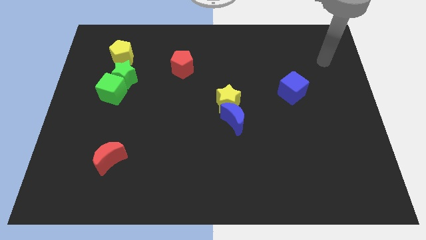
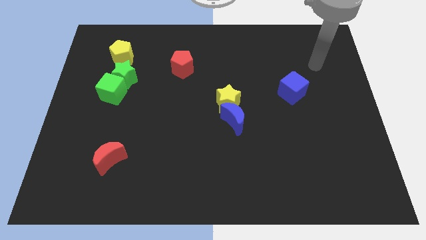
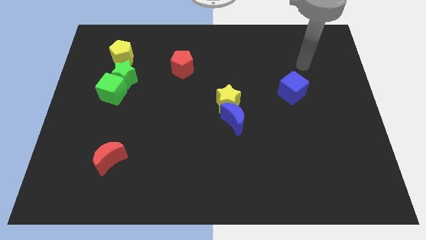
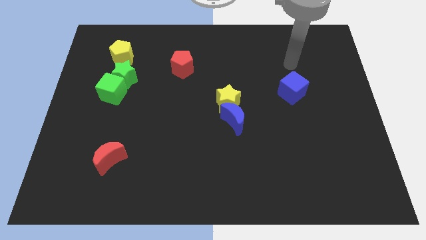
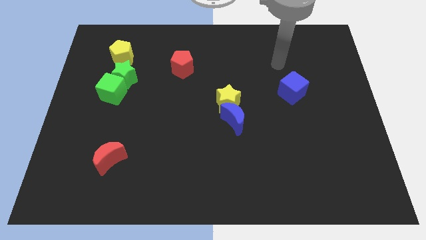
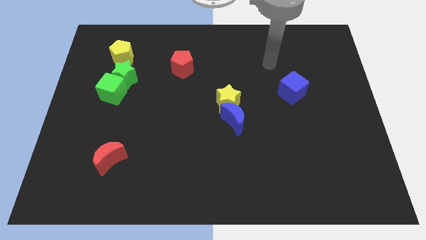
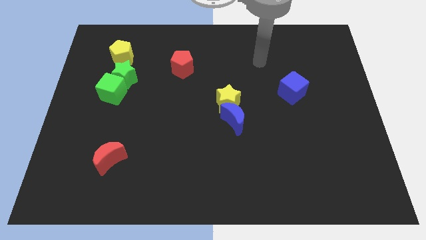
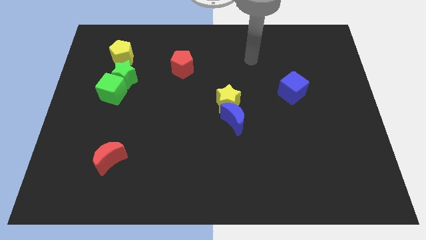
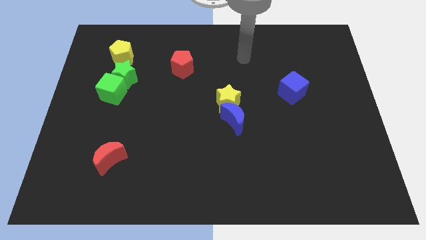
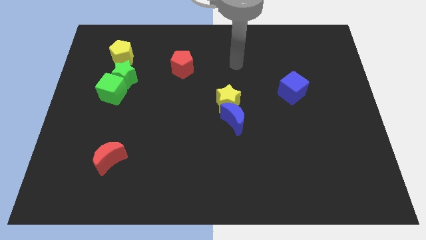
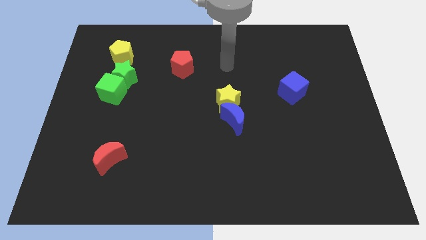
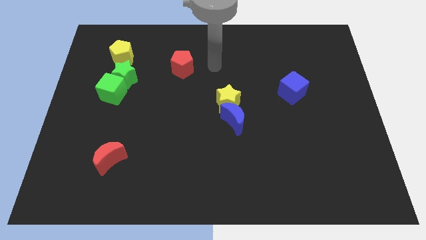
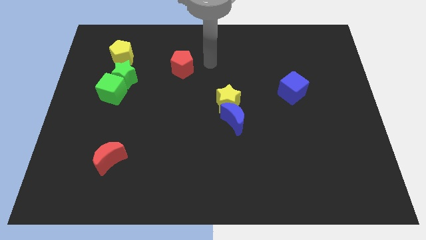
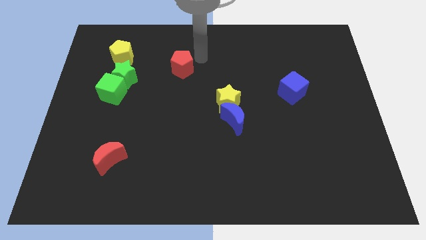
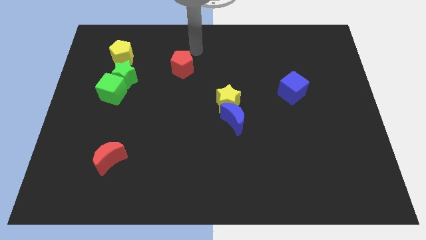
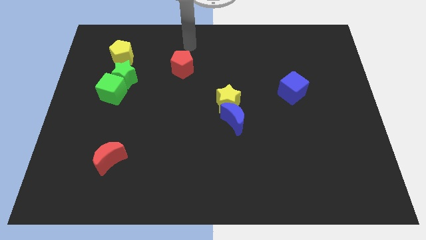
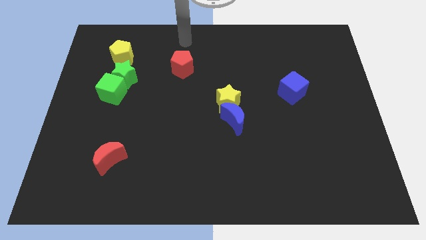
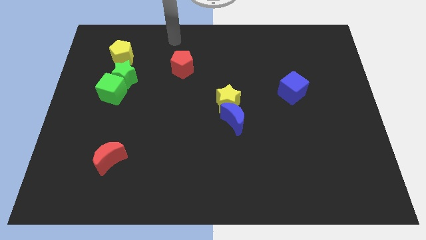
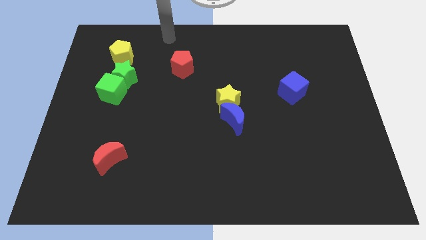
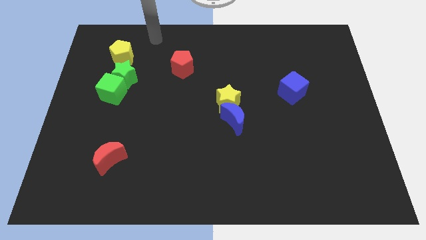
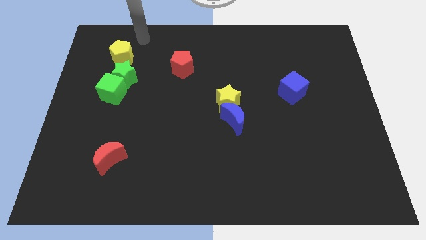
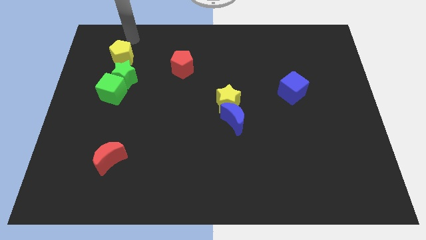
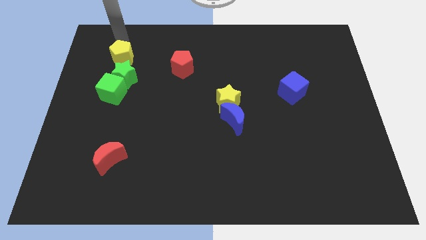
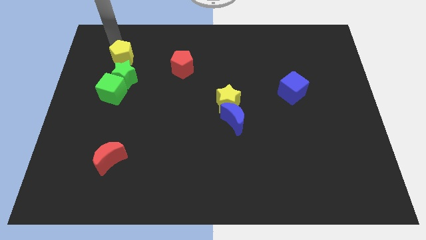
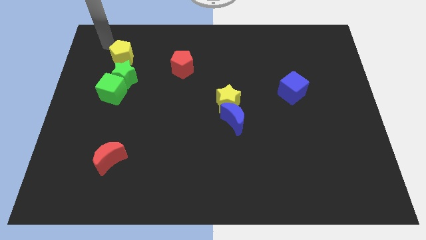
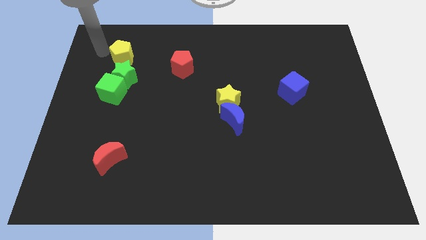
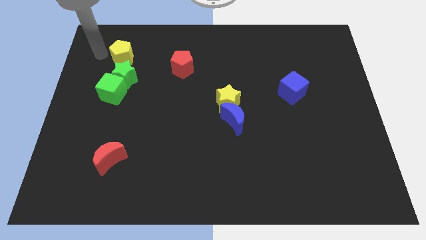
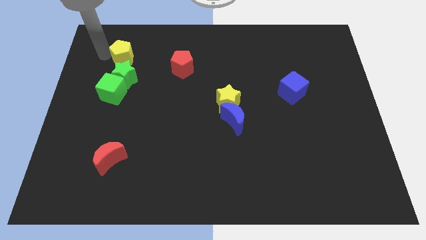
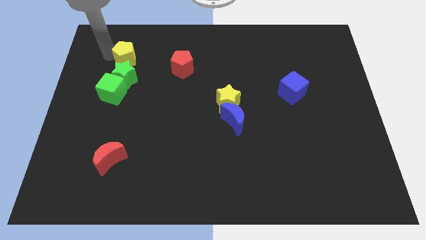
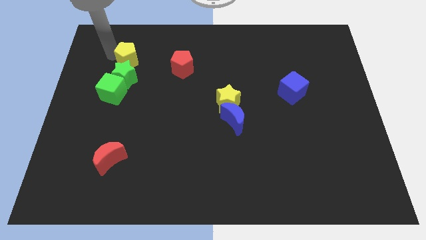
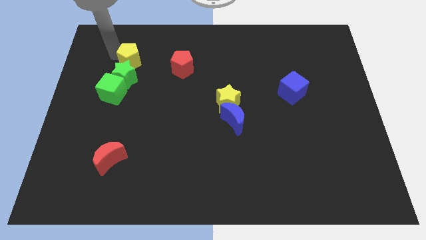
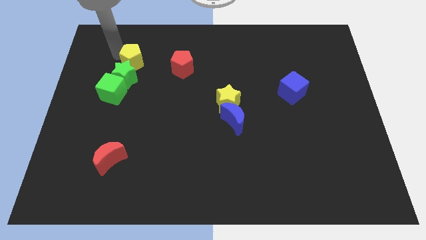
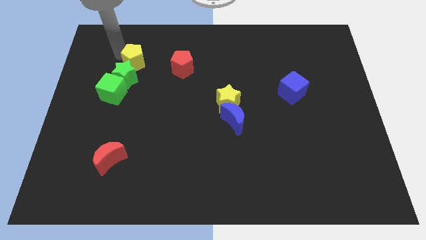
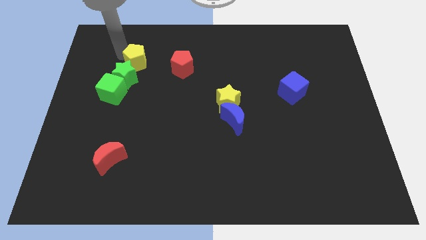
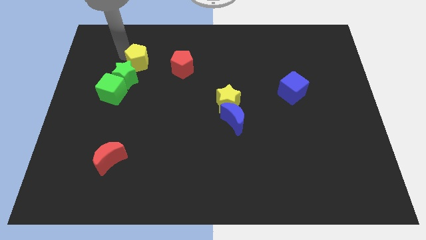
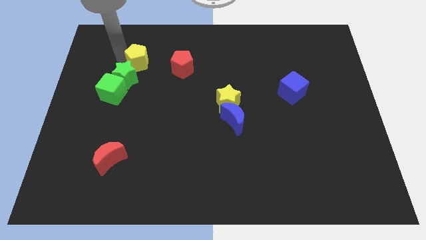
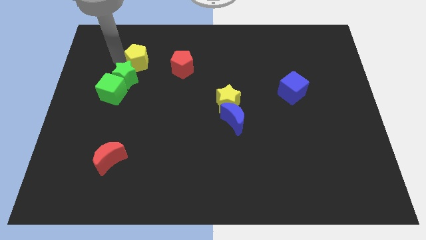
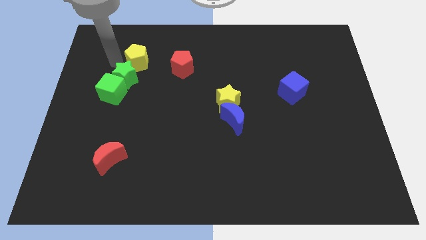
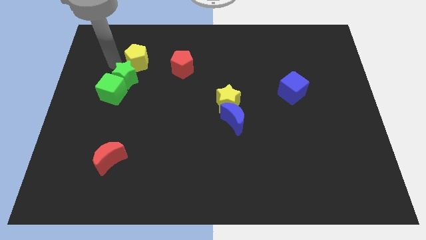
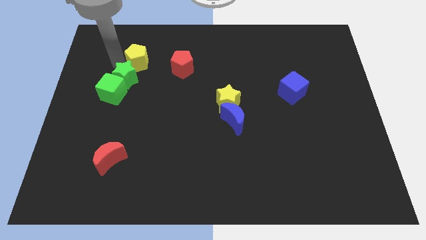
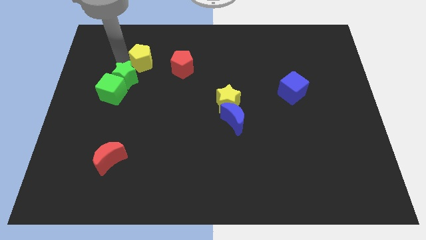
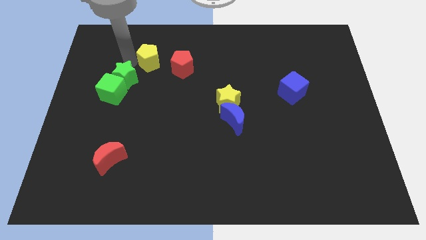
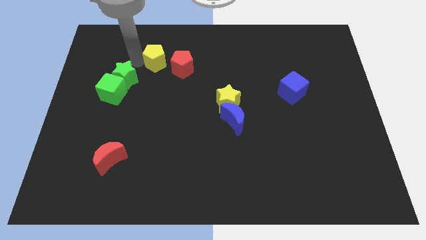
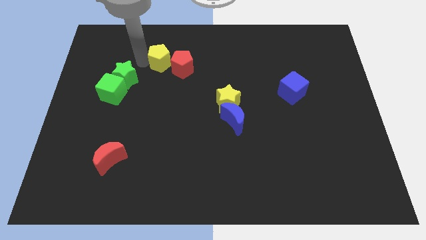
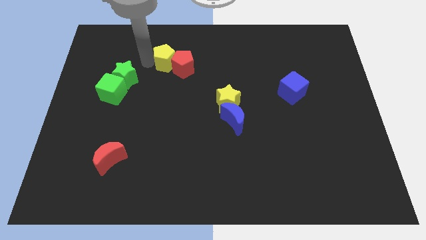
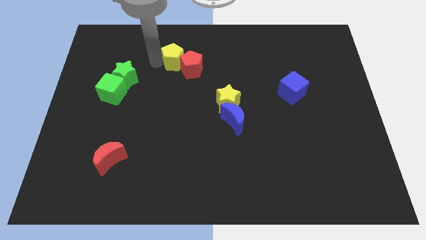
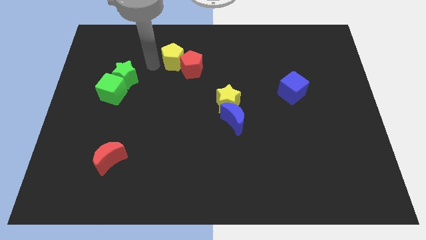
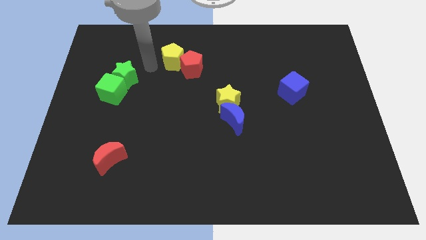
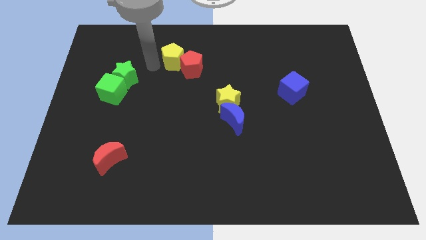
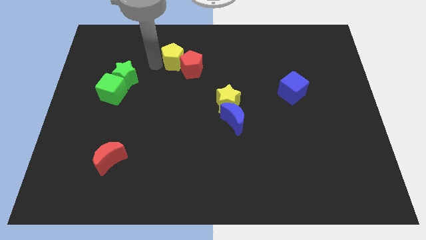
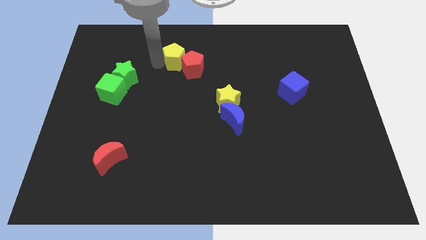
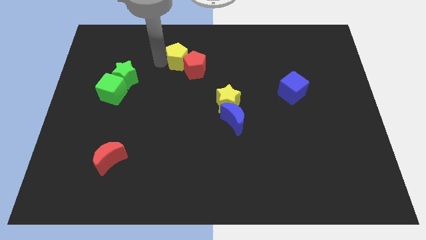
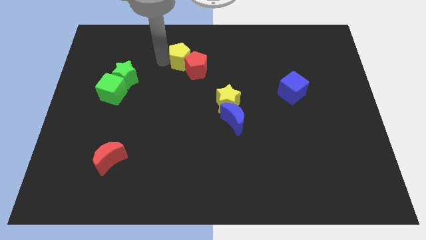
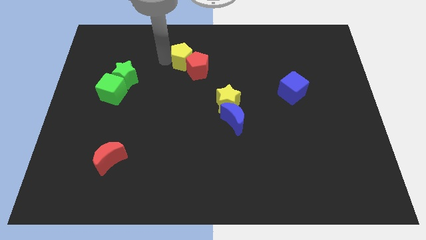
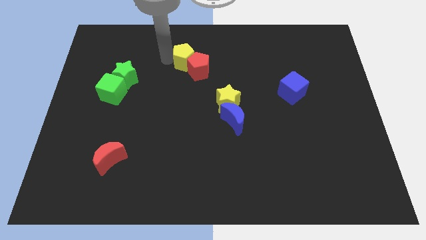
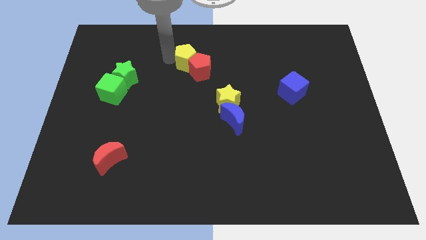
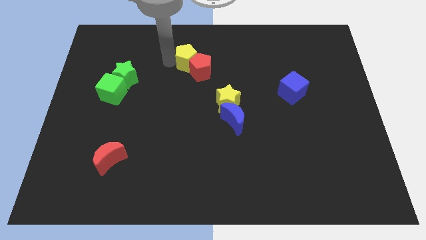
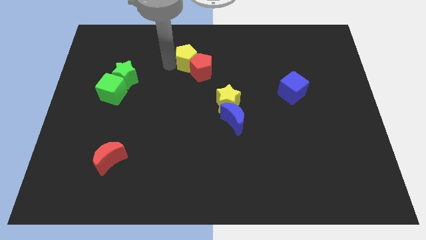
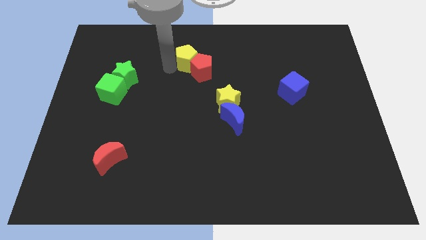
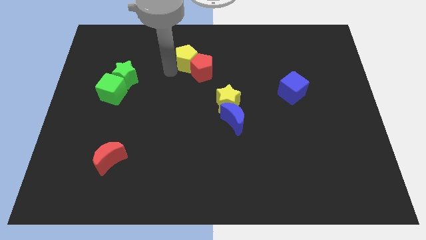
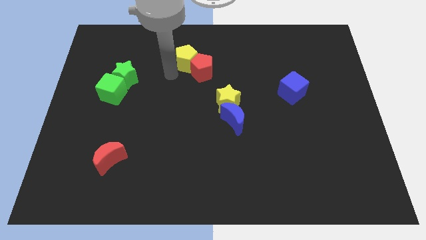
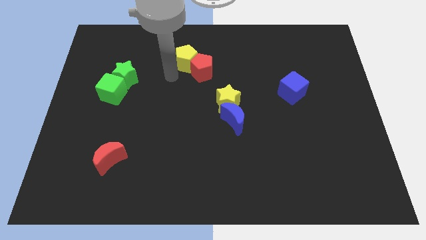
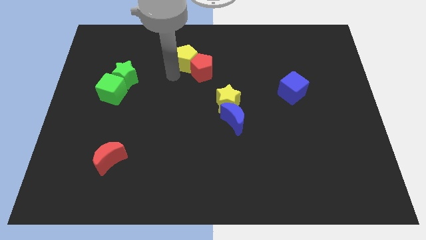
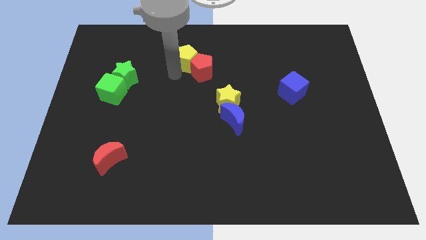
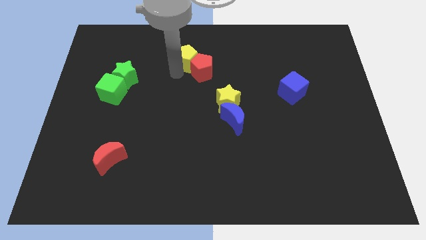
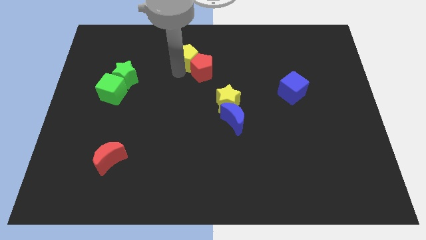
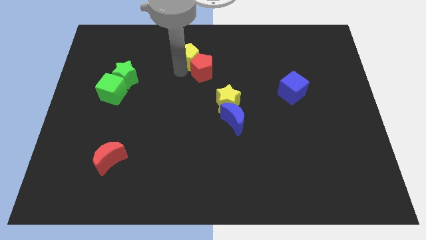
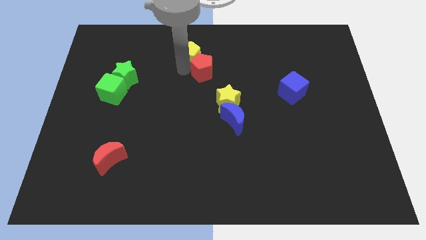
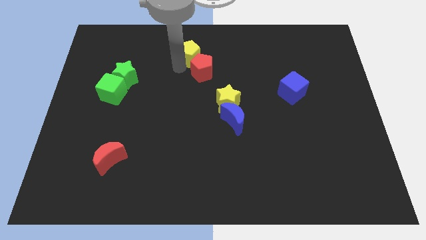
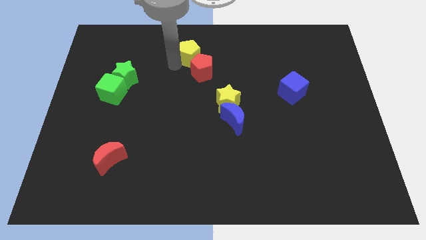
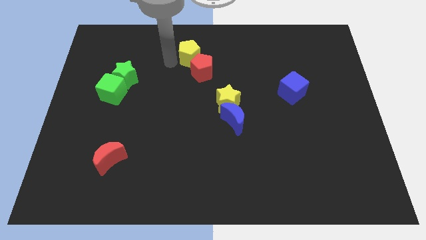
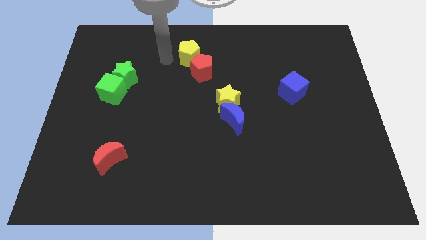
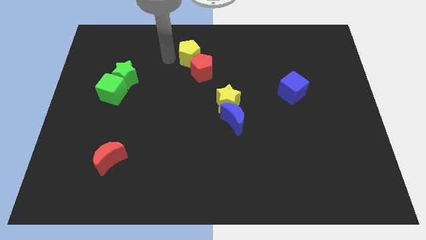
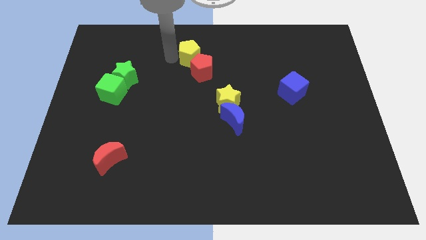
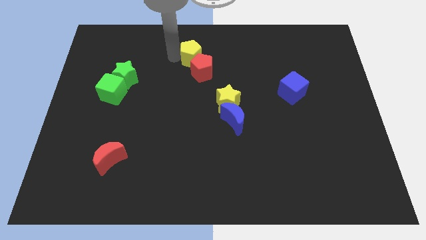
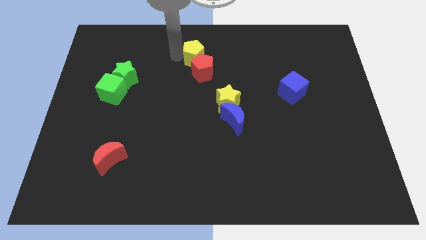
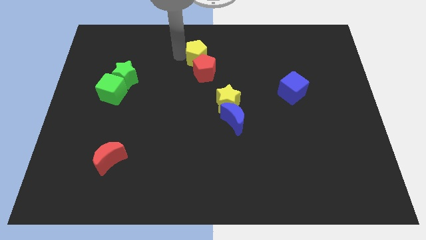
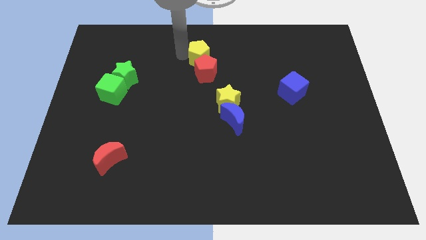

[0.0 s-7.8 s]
move the yellow pentagon to the right

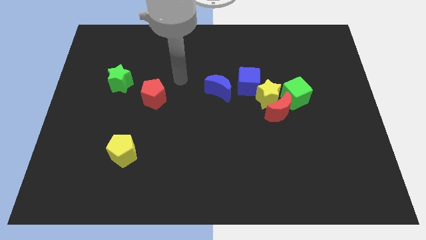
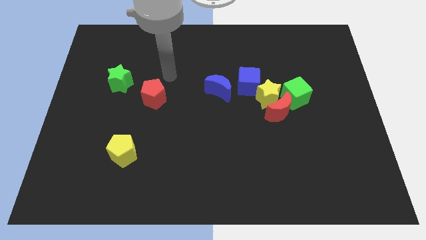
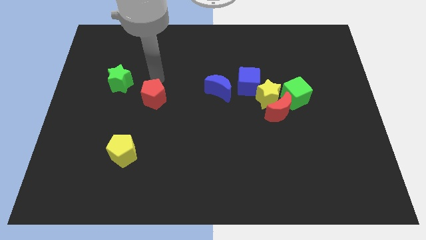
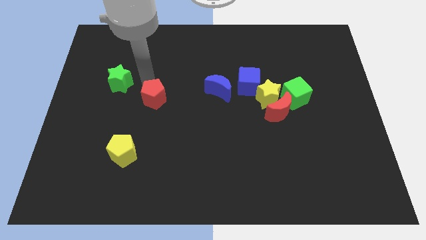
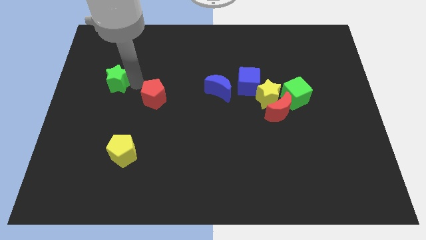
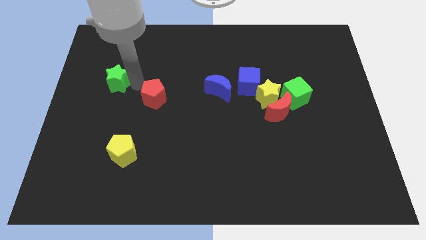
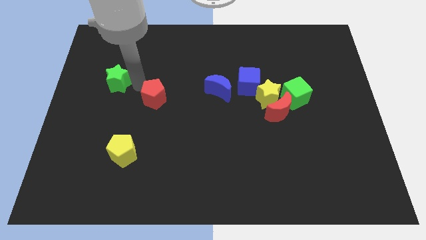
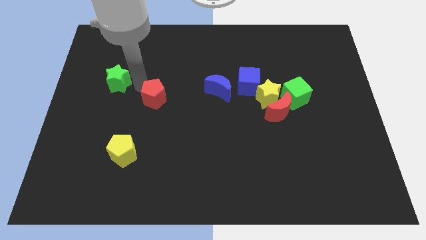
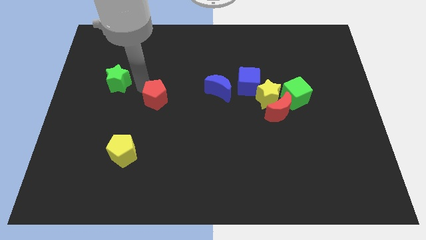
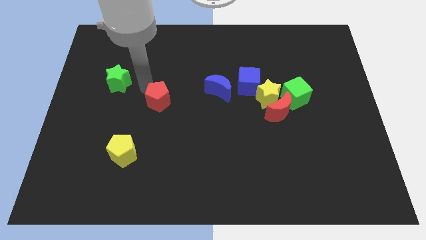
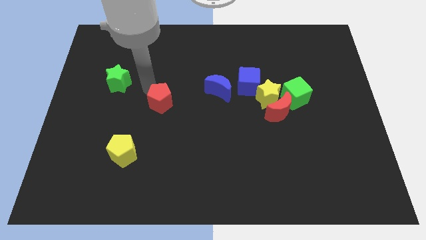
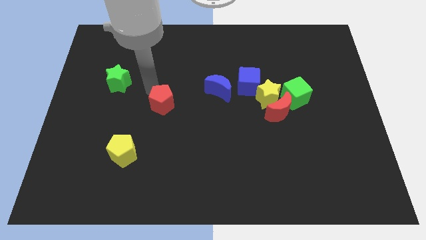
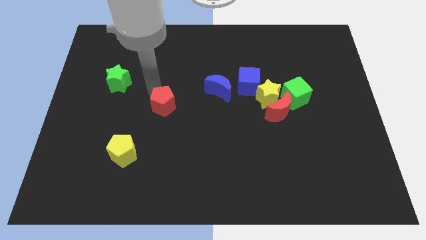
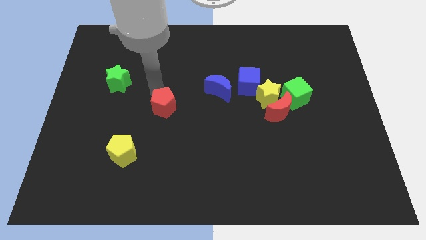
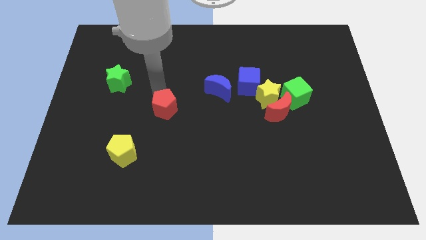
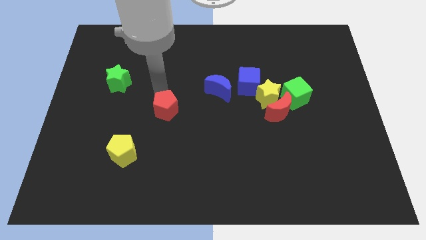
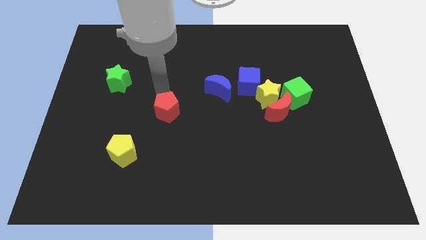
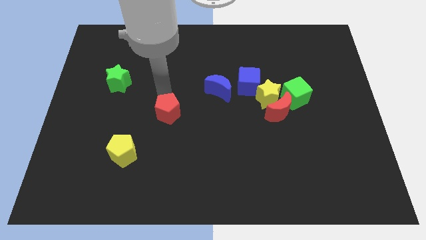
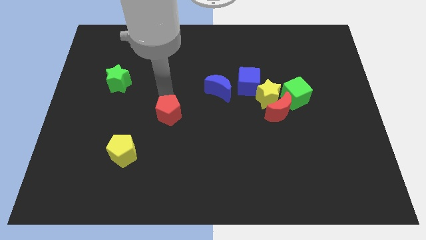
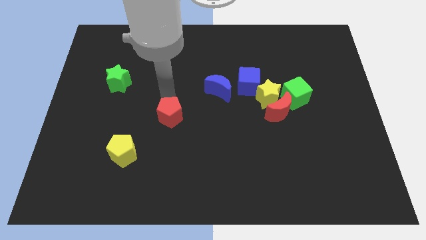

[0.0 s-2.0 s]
move the red pentagon slightly down and right
